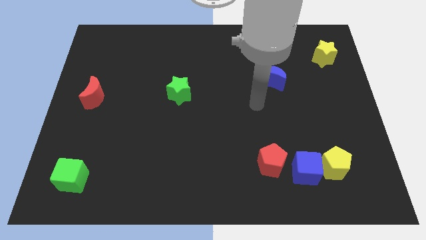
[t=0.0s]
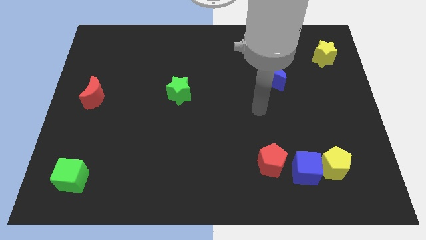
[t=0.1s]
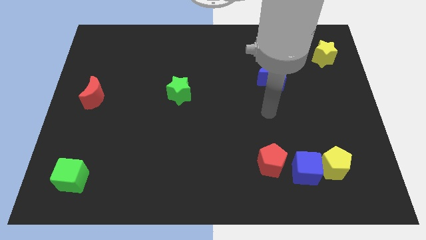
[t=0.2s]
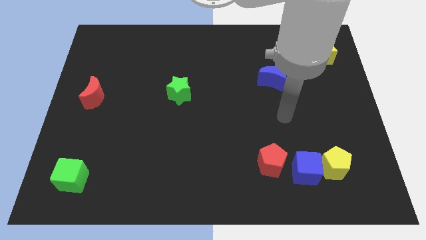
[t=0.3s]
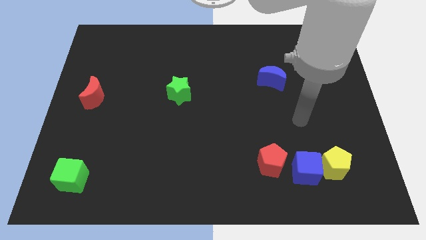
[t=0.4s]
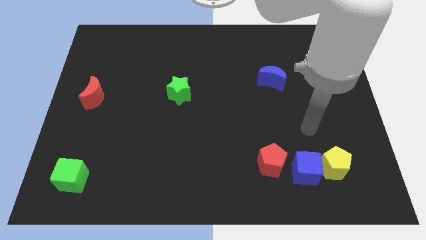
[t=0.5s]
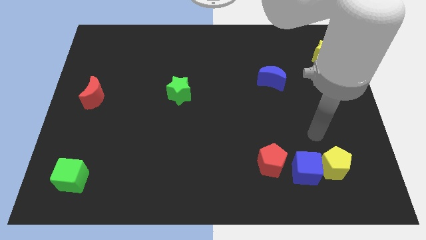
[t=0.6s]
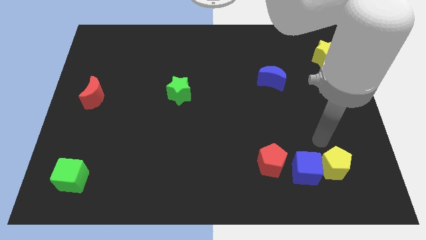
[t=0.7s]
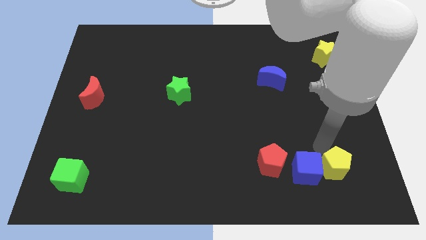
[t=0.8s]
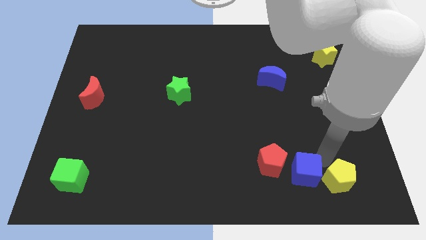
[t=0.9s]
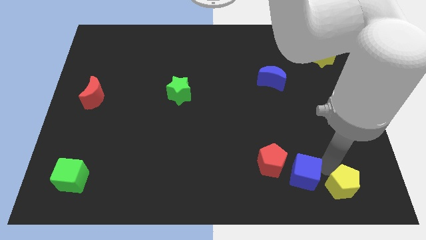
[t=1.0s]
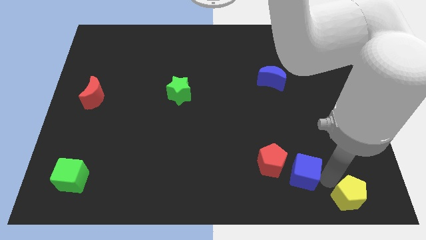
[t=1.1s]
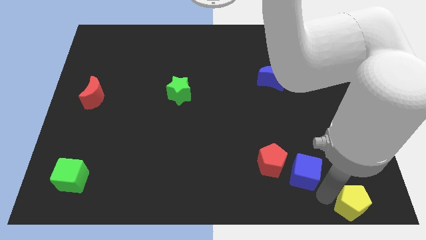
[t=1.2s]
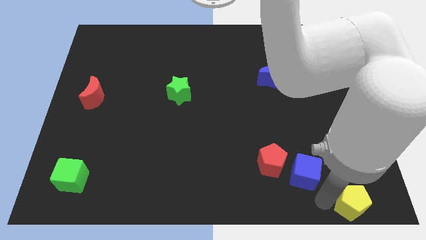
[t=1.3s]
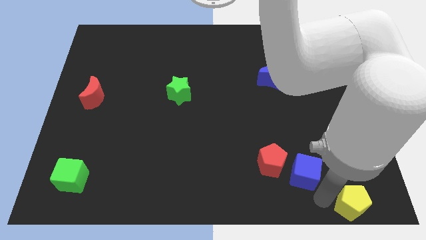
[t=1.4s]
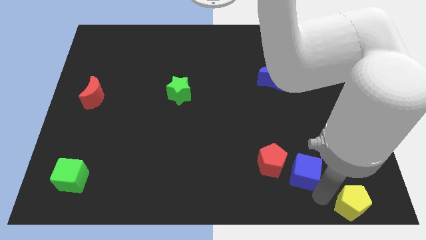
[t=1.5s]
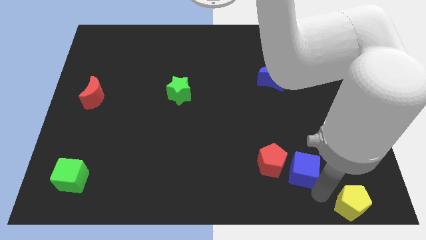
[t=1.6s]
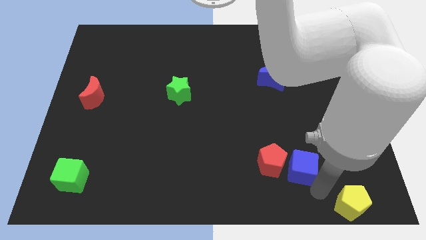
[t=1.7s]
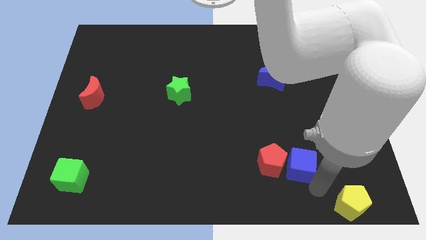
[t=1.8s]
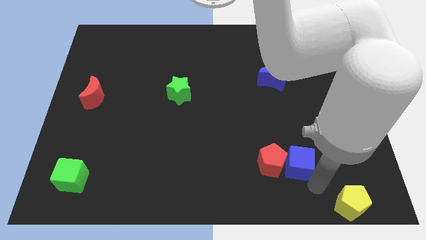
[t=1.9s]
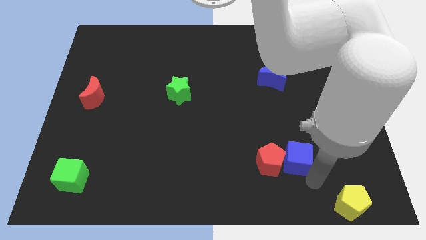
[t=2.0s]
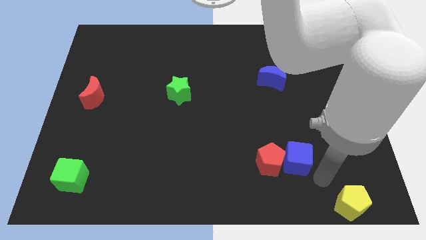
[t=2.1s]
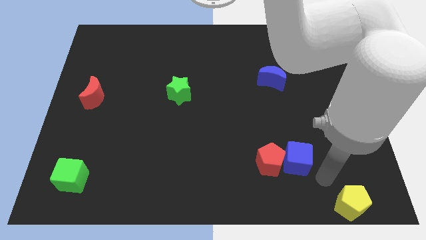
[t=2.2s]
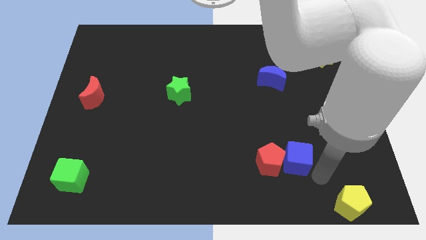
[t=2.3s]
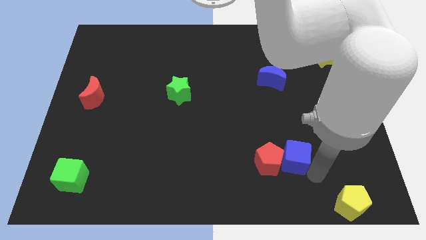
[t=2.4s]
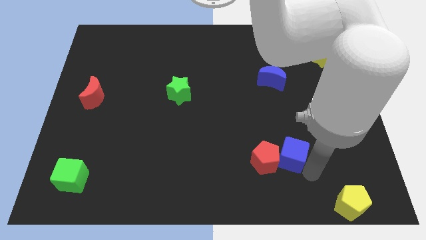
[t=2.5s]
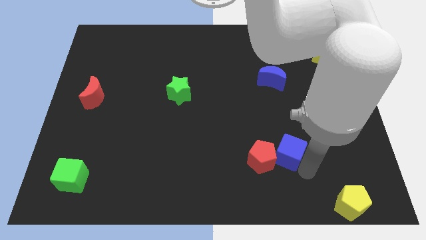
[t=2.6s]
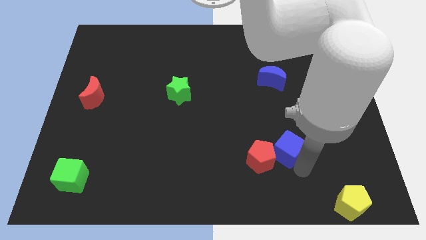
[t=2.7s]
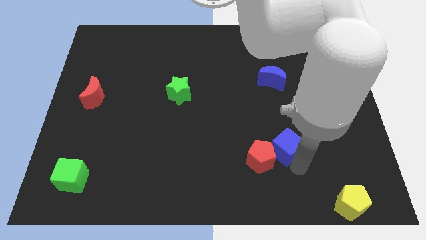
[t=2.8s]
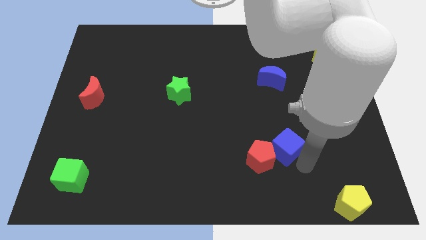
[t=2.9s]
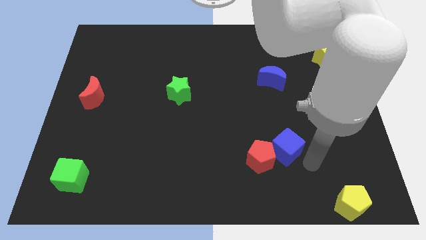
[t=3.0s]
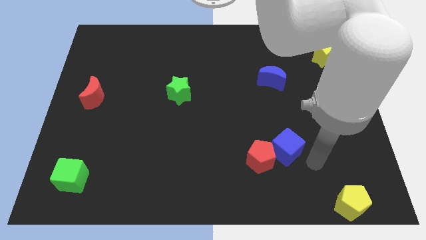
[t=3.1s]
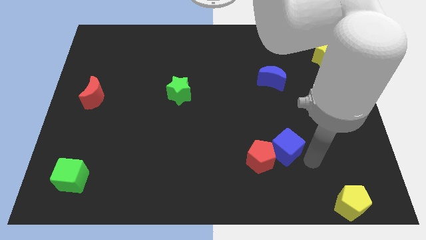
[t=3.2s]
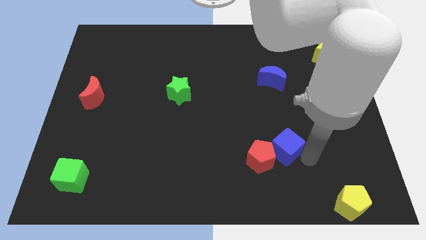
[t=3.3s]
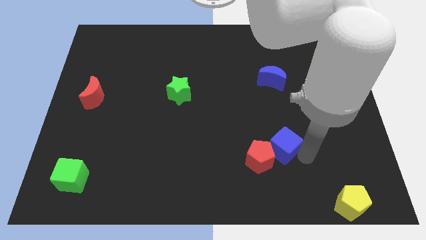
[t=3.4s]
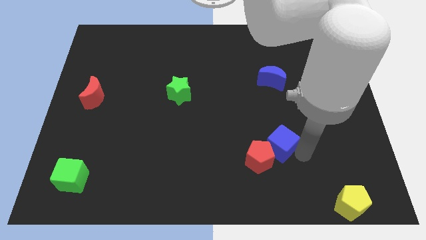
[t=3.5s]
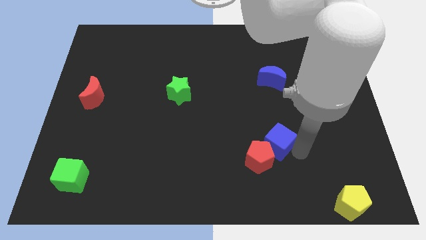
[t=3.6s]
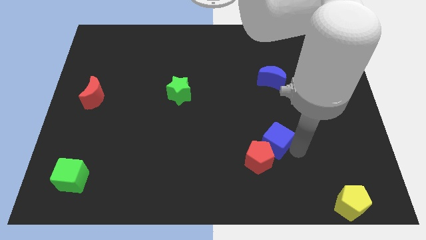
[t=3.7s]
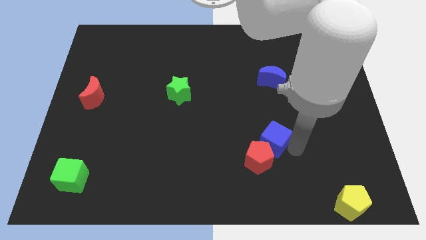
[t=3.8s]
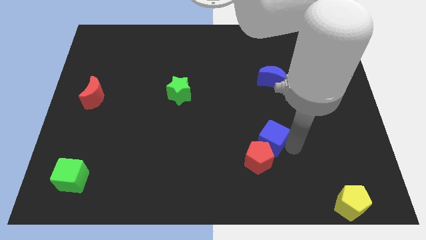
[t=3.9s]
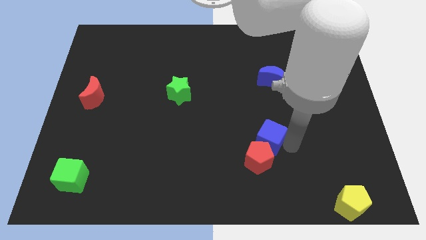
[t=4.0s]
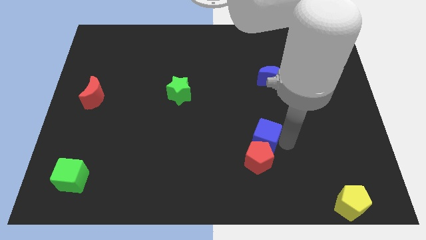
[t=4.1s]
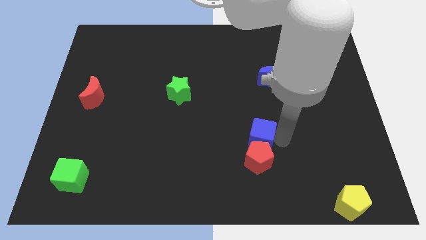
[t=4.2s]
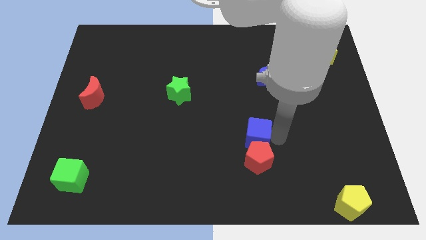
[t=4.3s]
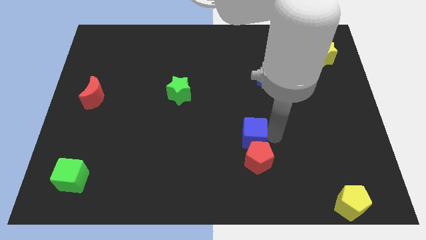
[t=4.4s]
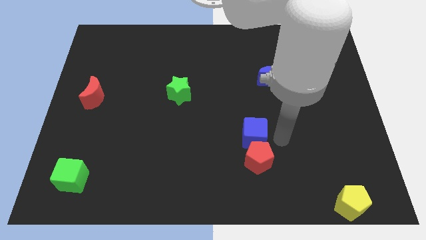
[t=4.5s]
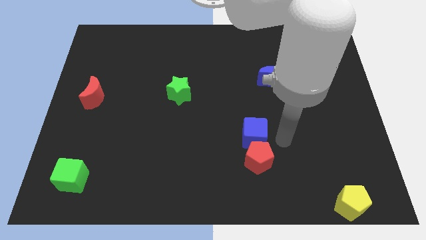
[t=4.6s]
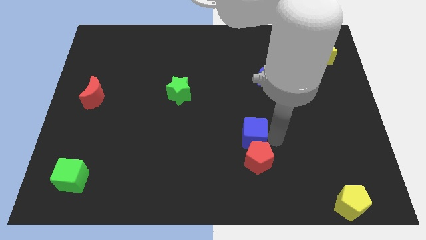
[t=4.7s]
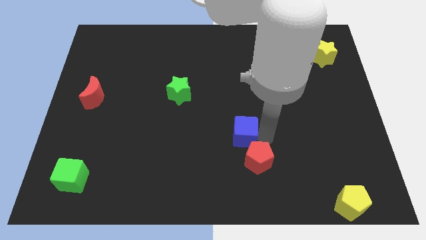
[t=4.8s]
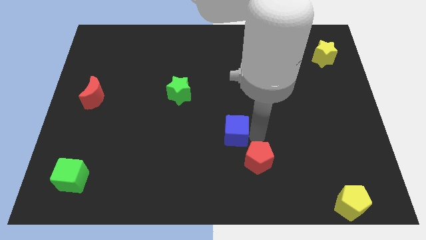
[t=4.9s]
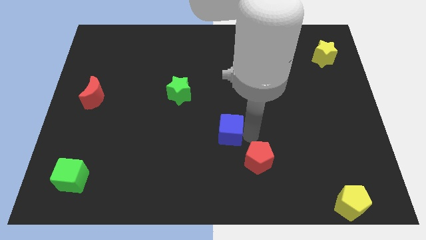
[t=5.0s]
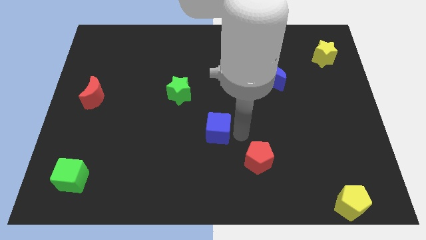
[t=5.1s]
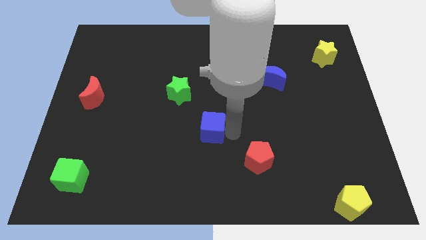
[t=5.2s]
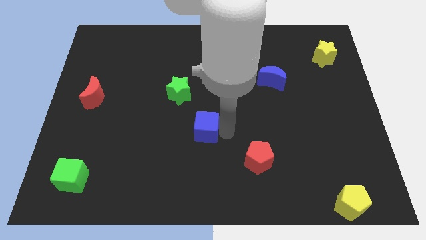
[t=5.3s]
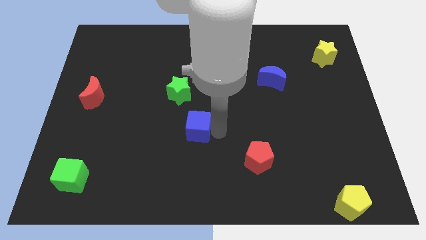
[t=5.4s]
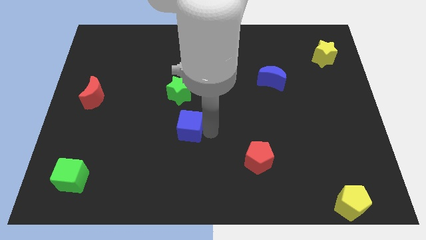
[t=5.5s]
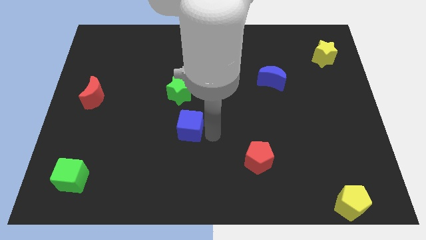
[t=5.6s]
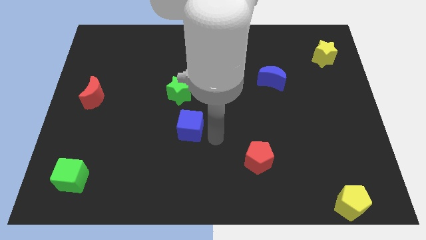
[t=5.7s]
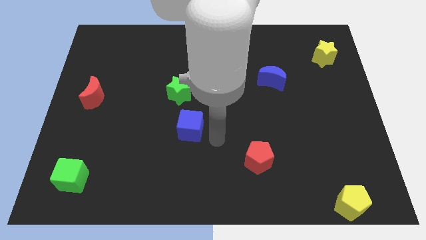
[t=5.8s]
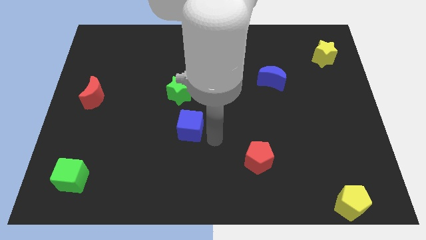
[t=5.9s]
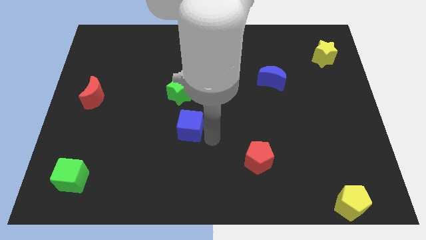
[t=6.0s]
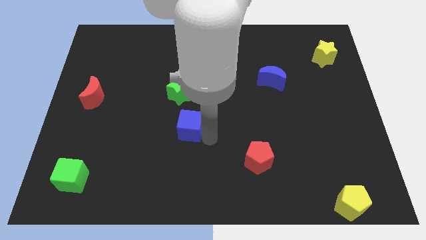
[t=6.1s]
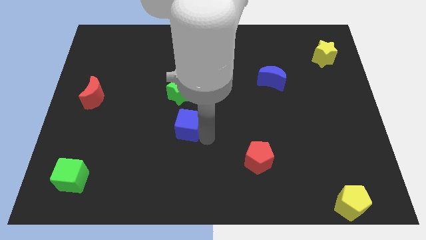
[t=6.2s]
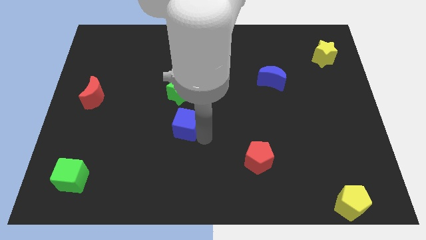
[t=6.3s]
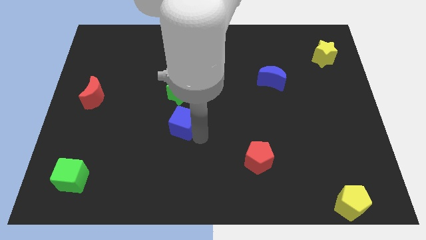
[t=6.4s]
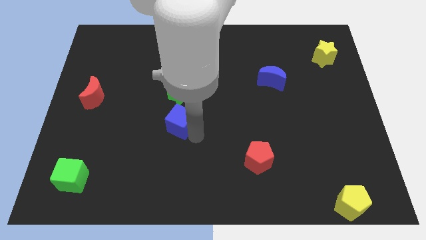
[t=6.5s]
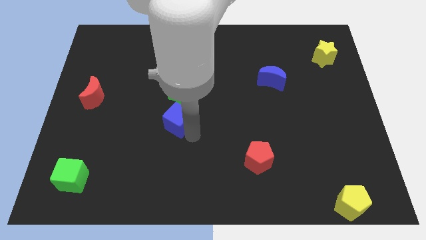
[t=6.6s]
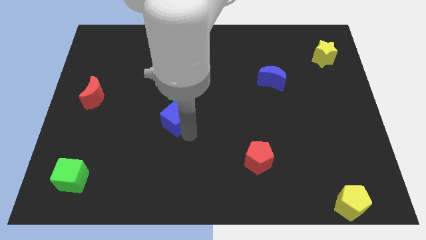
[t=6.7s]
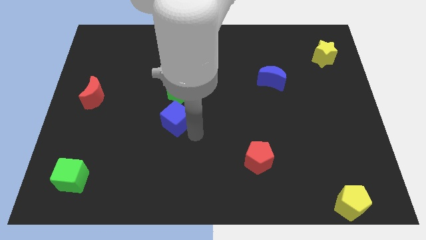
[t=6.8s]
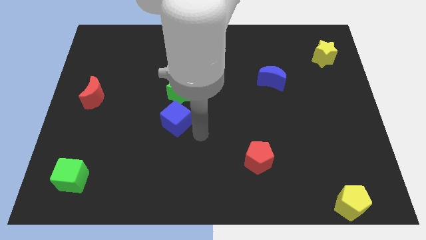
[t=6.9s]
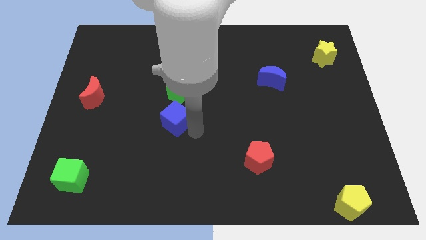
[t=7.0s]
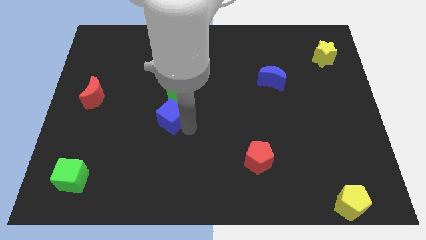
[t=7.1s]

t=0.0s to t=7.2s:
push the blue cube diagonally down and to the left of the green star
